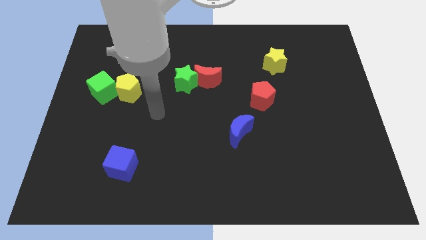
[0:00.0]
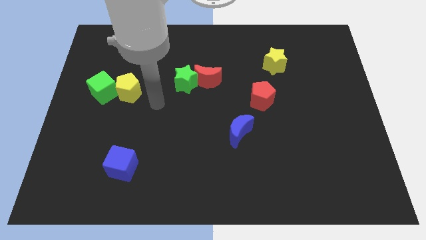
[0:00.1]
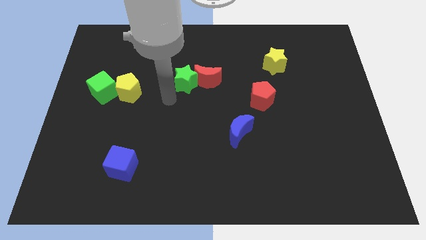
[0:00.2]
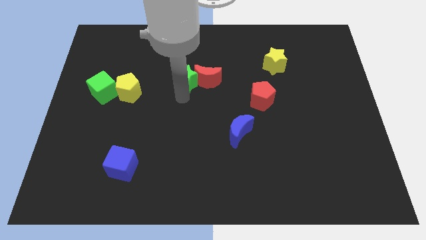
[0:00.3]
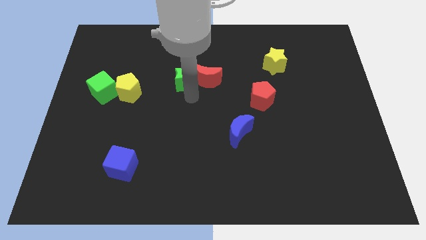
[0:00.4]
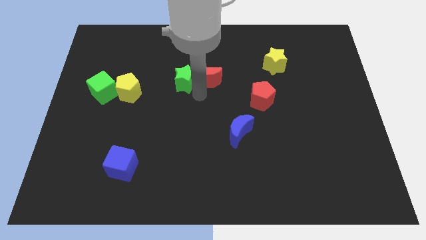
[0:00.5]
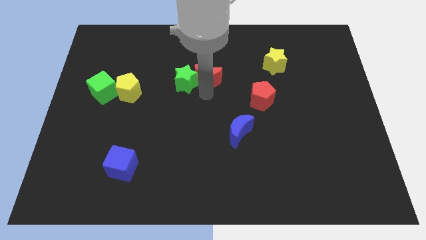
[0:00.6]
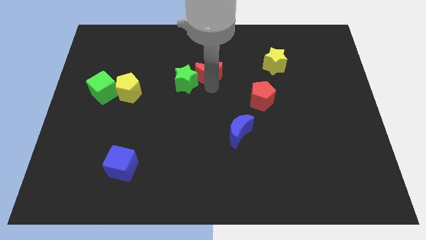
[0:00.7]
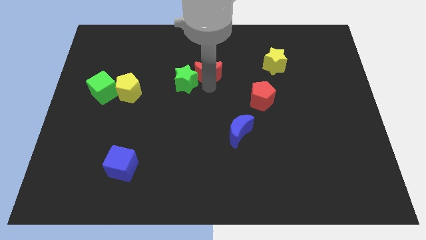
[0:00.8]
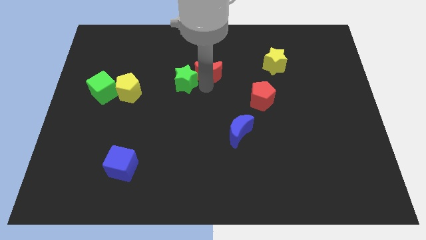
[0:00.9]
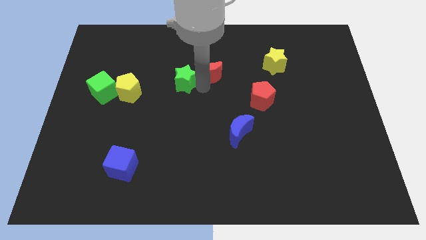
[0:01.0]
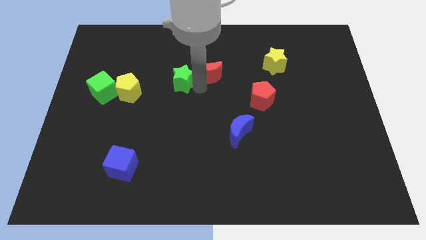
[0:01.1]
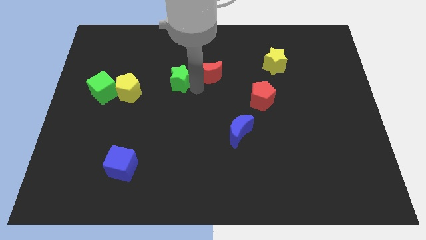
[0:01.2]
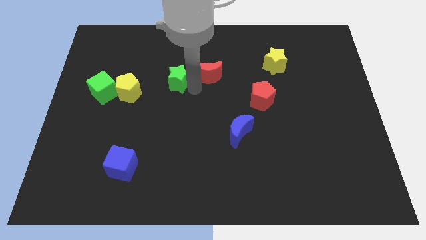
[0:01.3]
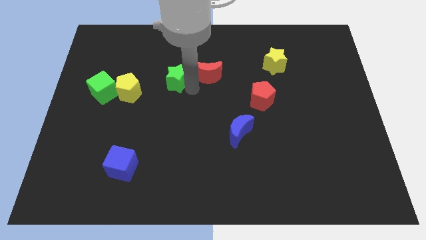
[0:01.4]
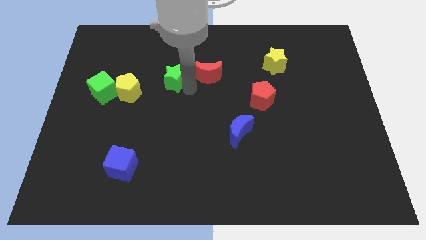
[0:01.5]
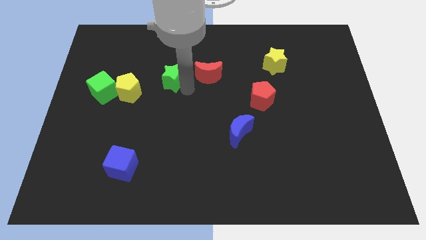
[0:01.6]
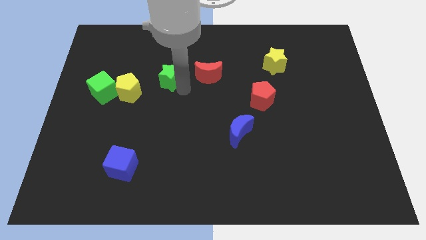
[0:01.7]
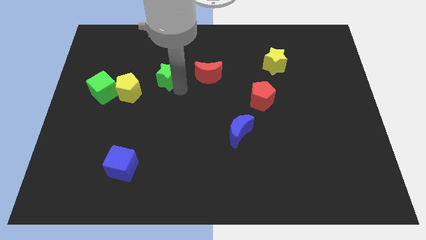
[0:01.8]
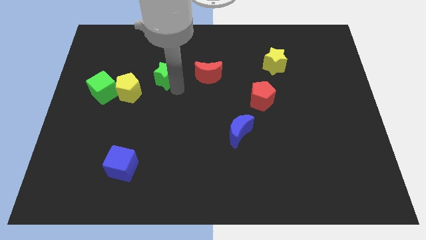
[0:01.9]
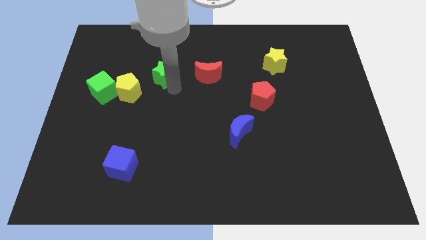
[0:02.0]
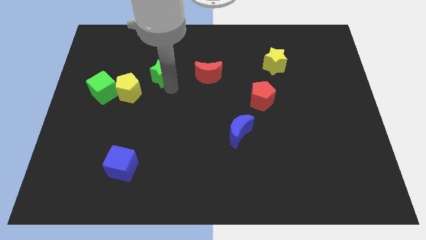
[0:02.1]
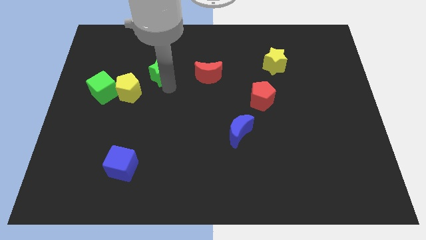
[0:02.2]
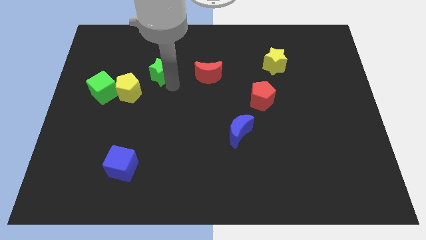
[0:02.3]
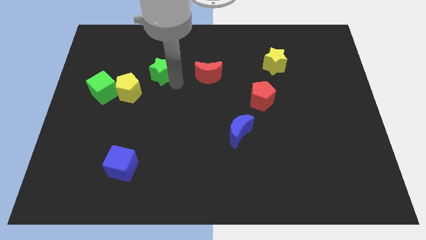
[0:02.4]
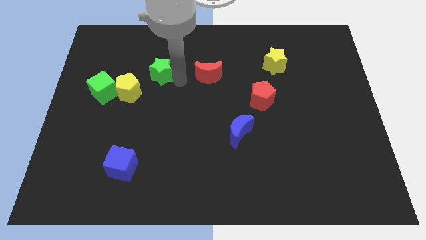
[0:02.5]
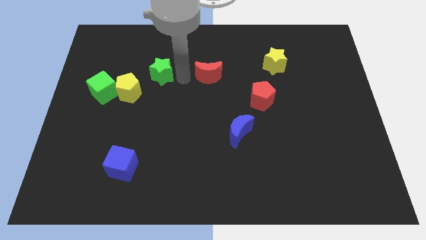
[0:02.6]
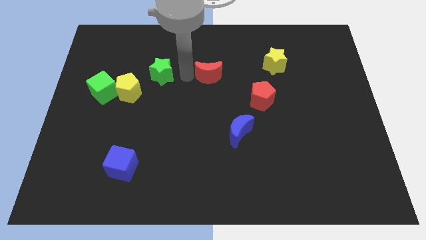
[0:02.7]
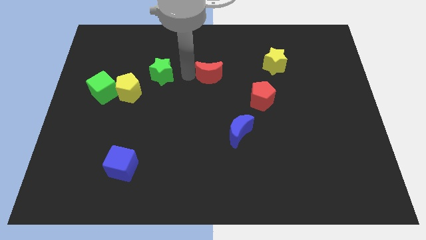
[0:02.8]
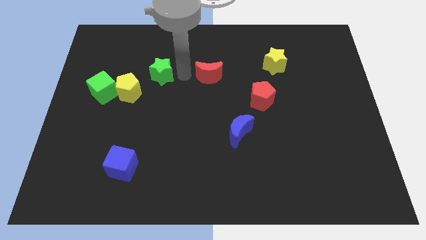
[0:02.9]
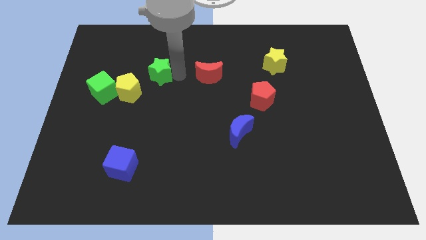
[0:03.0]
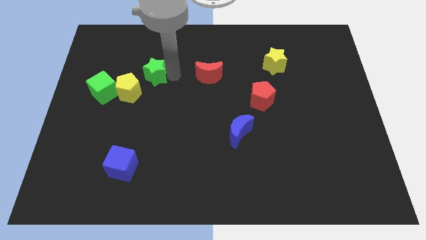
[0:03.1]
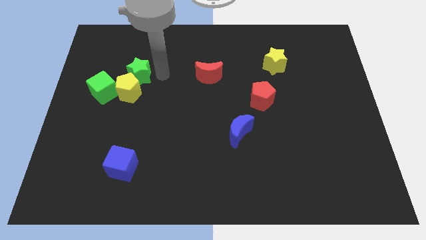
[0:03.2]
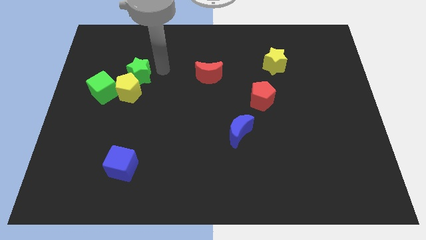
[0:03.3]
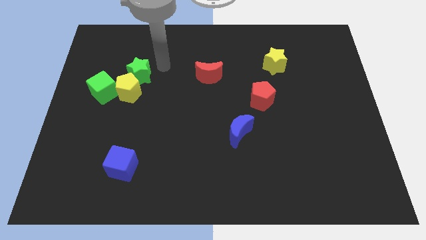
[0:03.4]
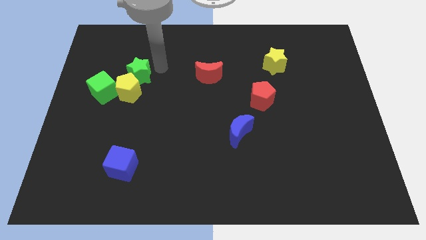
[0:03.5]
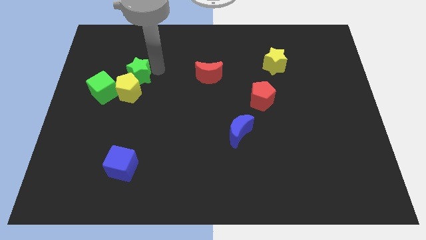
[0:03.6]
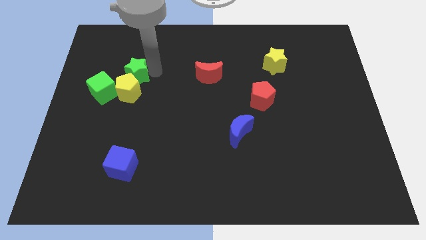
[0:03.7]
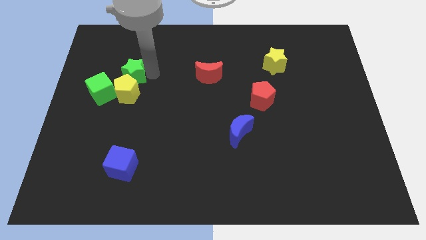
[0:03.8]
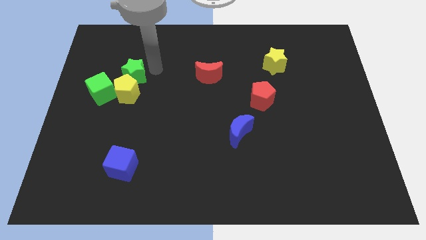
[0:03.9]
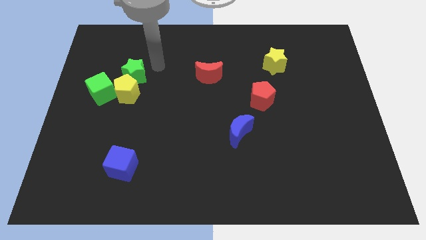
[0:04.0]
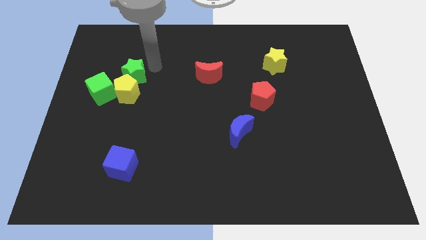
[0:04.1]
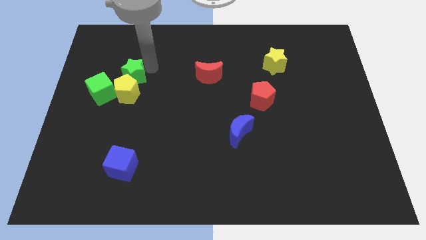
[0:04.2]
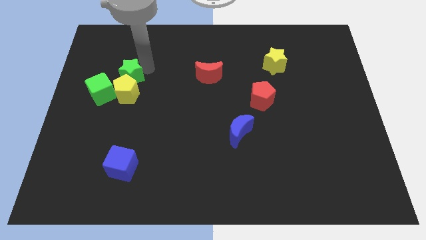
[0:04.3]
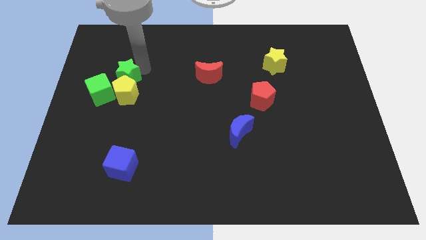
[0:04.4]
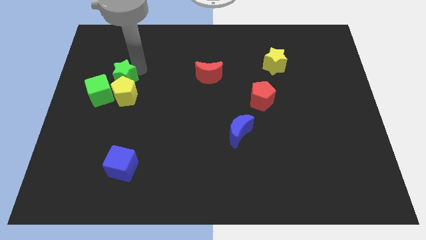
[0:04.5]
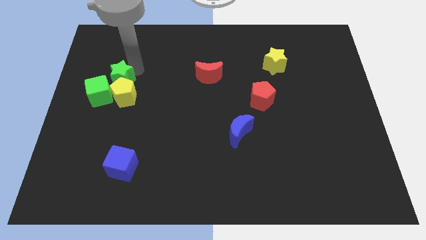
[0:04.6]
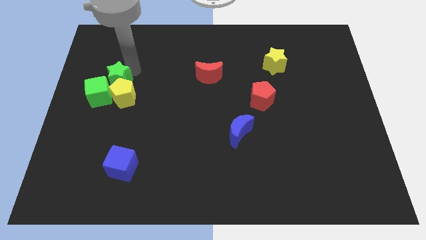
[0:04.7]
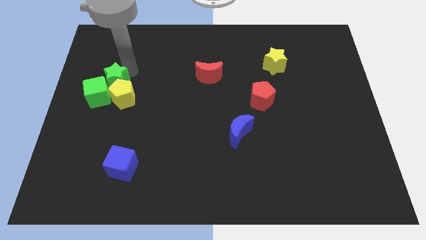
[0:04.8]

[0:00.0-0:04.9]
slide the green star next to the green cube

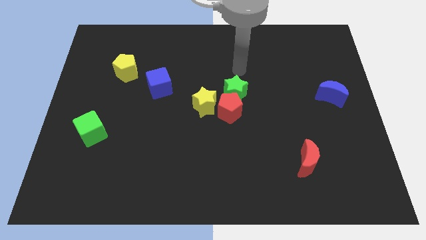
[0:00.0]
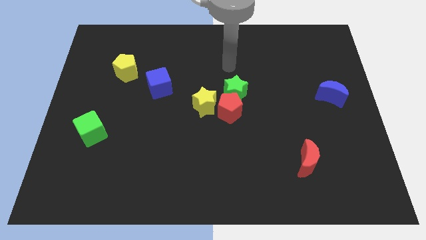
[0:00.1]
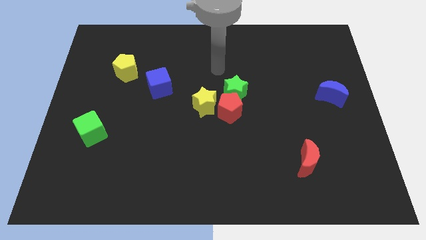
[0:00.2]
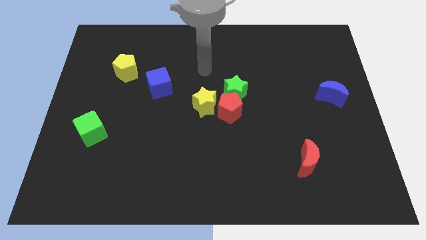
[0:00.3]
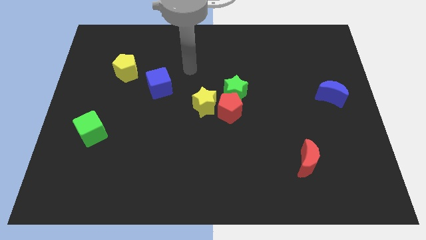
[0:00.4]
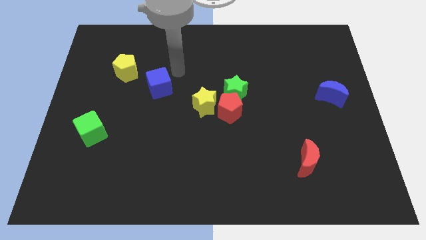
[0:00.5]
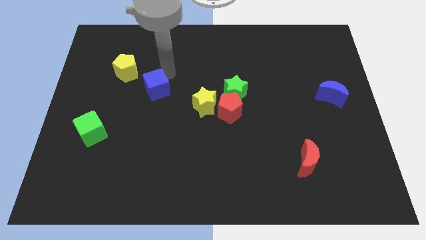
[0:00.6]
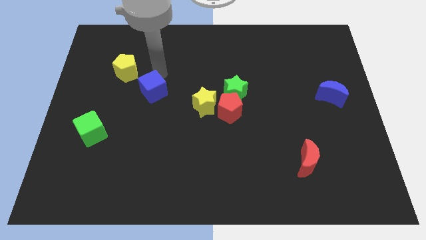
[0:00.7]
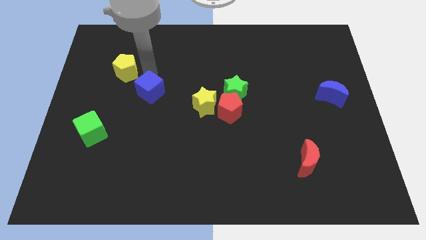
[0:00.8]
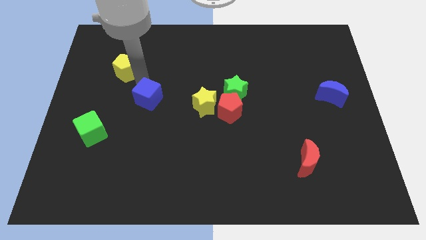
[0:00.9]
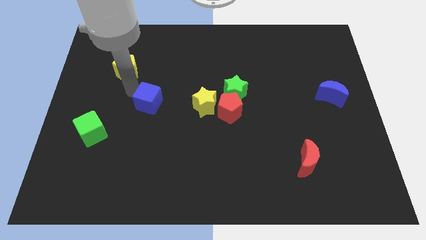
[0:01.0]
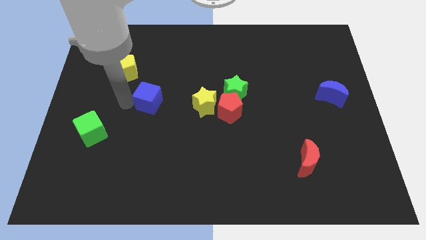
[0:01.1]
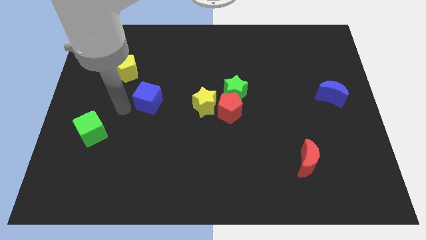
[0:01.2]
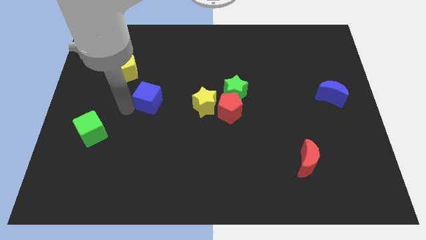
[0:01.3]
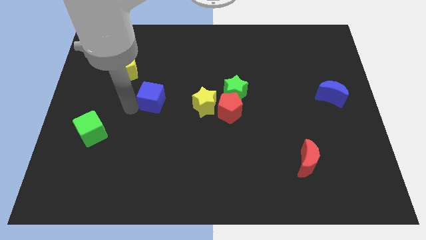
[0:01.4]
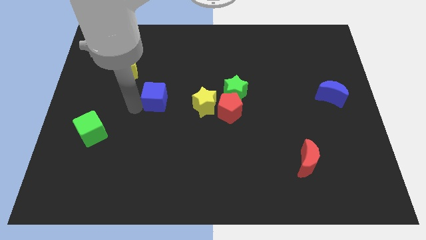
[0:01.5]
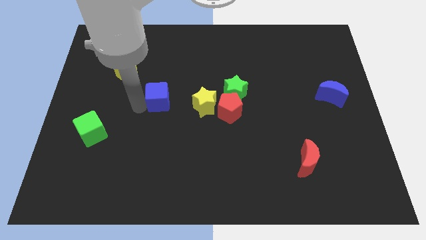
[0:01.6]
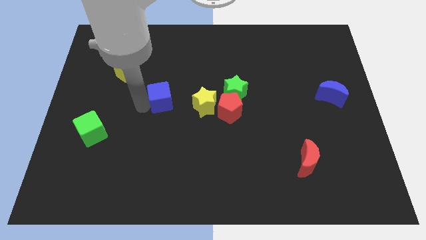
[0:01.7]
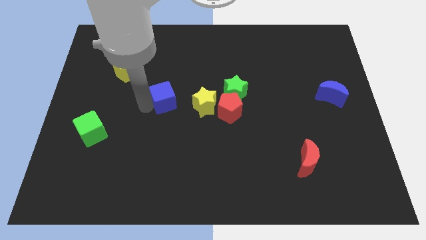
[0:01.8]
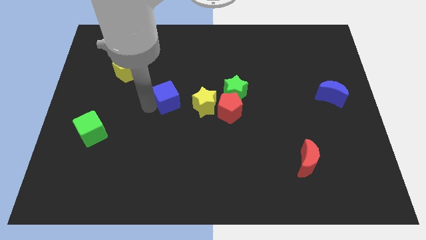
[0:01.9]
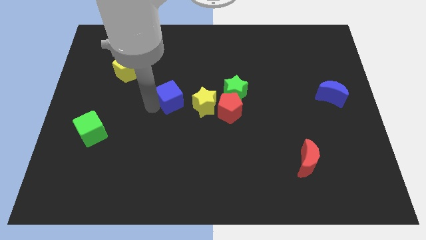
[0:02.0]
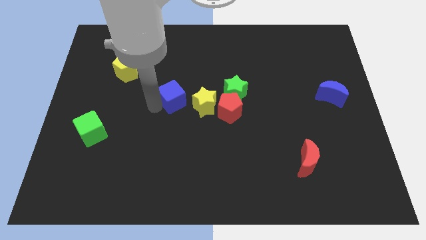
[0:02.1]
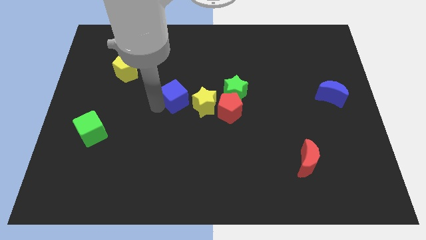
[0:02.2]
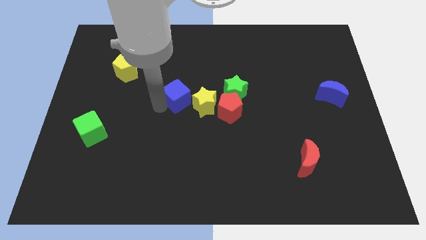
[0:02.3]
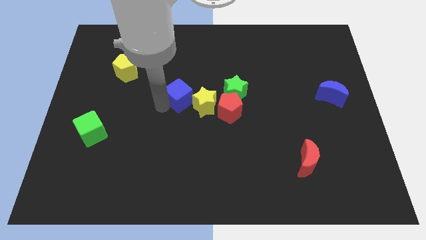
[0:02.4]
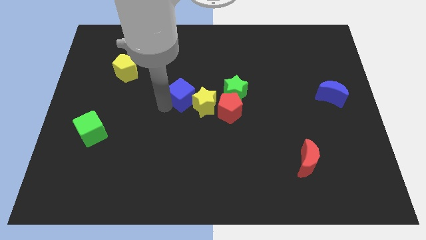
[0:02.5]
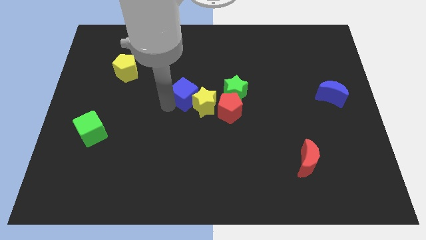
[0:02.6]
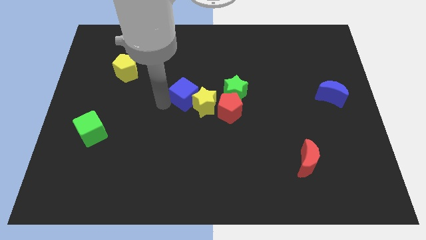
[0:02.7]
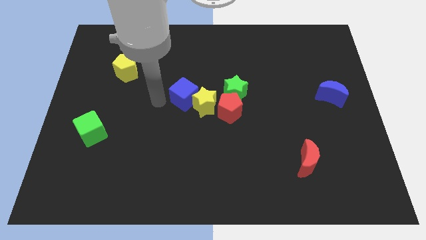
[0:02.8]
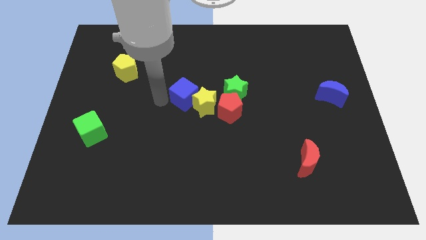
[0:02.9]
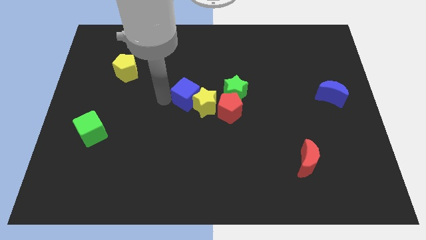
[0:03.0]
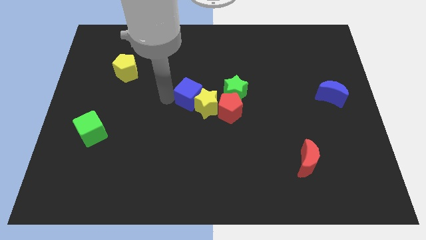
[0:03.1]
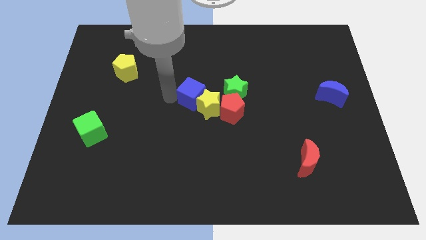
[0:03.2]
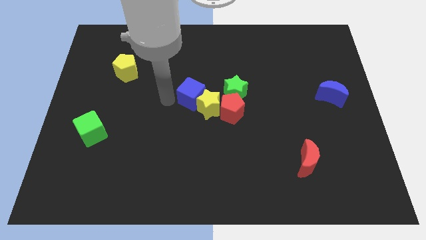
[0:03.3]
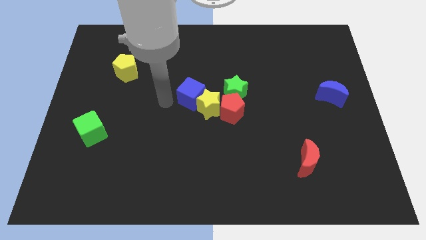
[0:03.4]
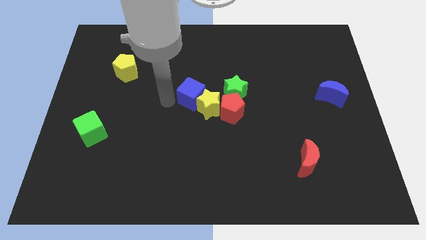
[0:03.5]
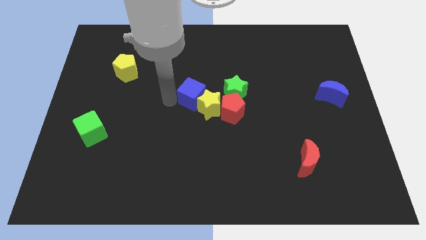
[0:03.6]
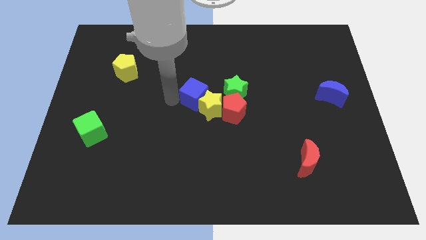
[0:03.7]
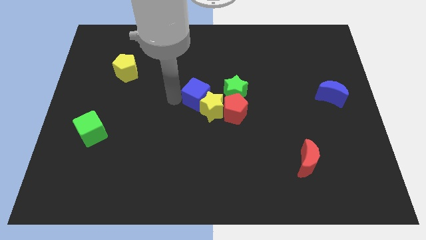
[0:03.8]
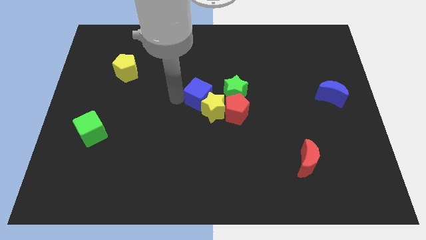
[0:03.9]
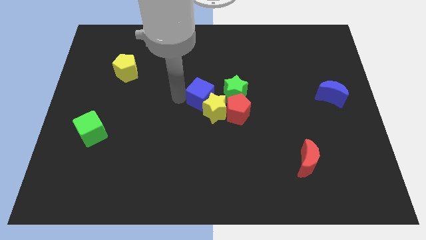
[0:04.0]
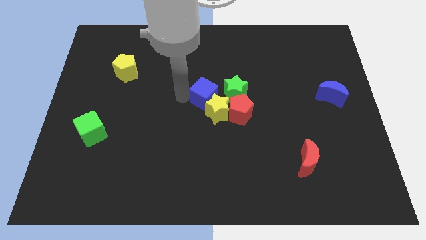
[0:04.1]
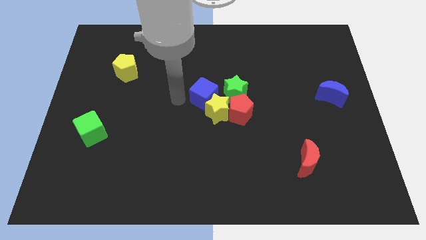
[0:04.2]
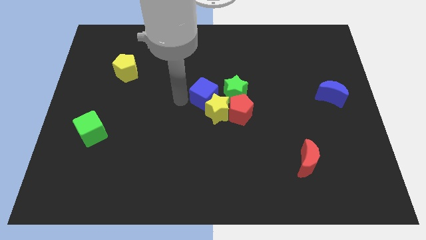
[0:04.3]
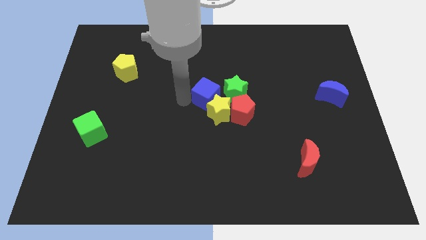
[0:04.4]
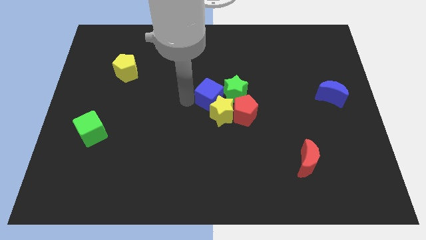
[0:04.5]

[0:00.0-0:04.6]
put the blue cube close to the green star
